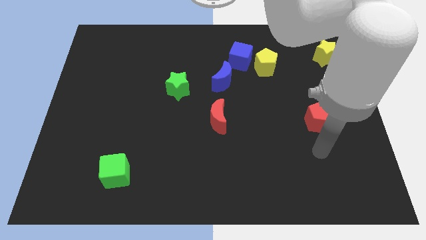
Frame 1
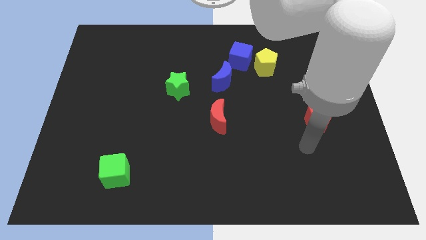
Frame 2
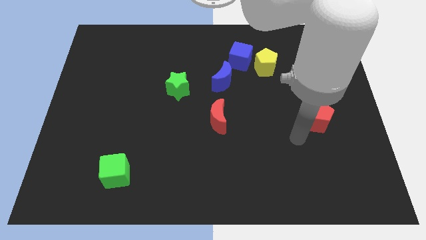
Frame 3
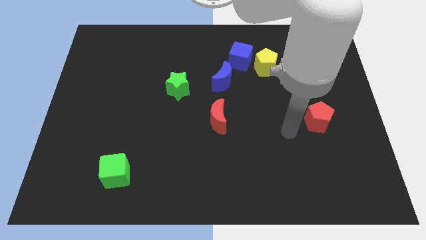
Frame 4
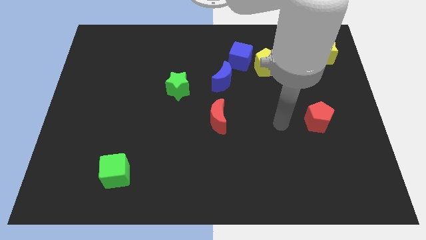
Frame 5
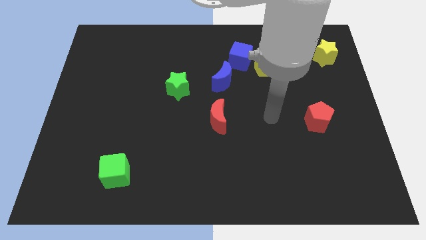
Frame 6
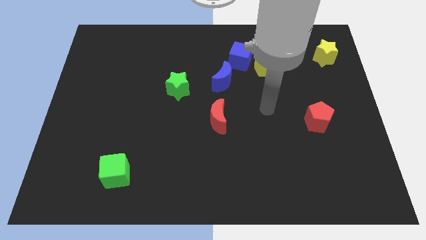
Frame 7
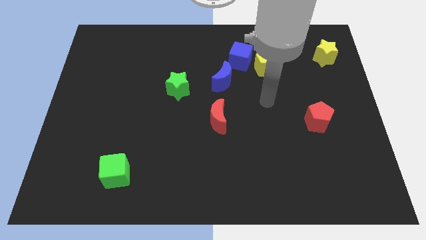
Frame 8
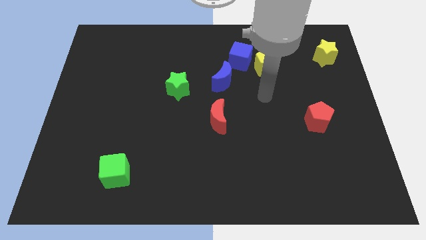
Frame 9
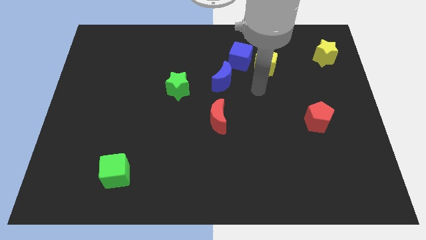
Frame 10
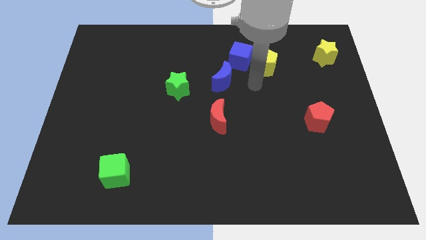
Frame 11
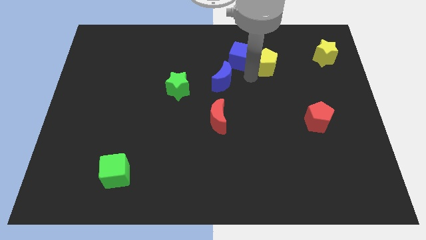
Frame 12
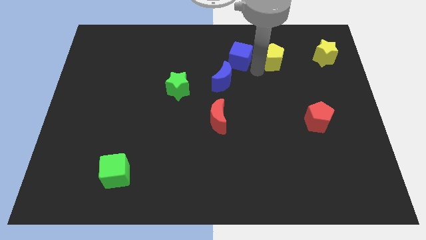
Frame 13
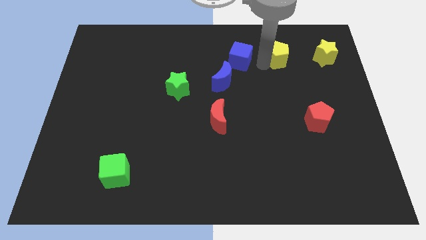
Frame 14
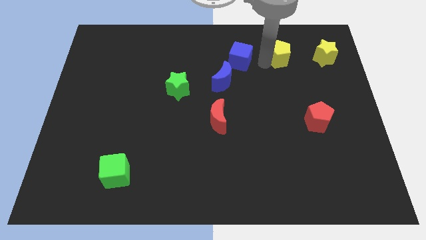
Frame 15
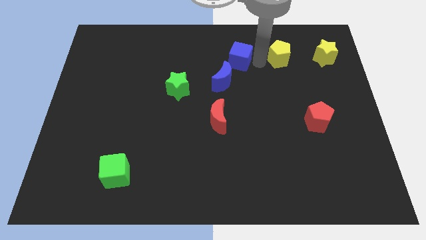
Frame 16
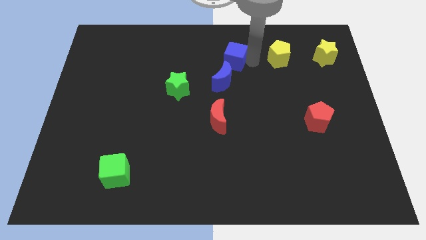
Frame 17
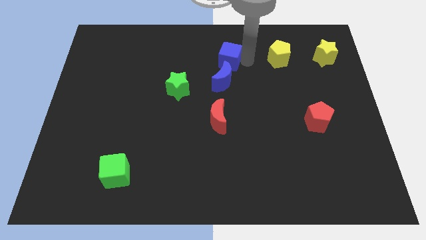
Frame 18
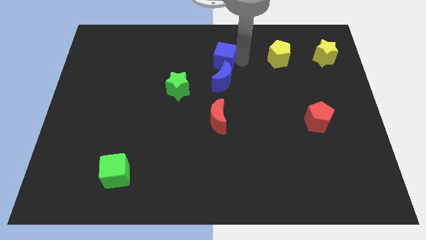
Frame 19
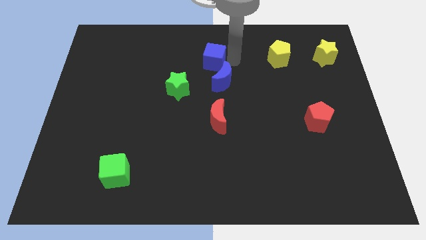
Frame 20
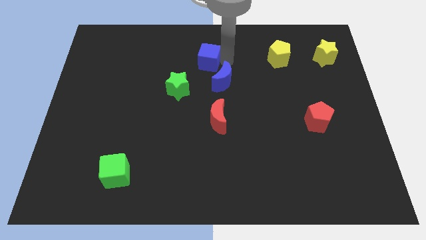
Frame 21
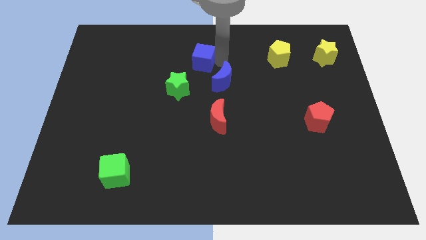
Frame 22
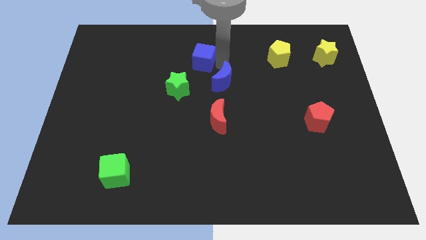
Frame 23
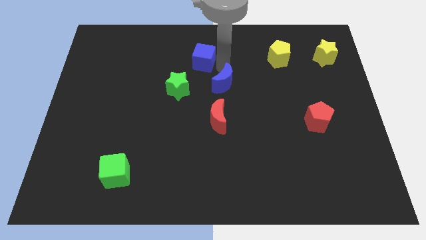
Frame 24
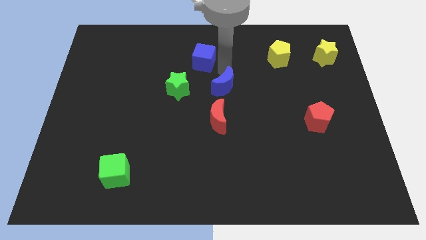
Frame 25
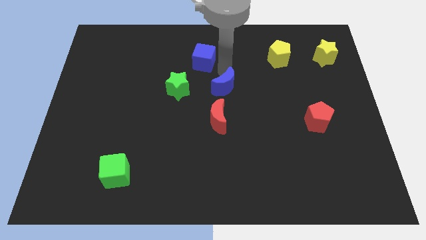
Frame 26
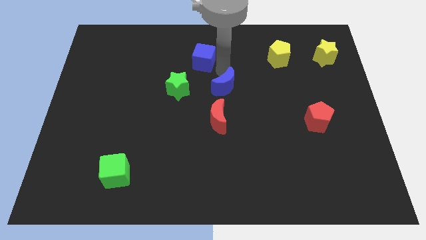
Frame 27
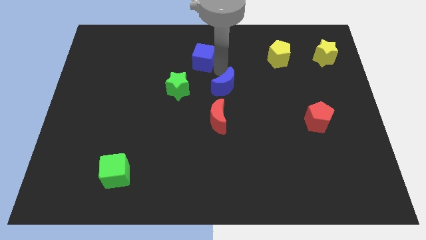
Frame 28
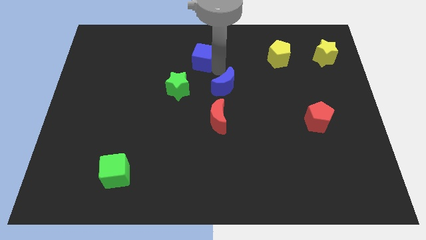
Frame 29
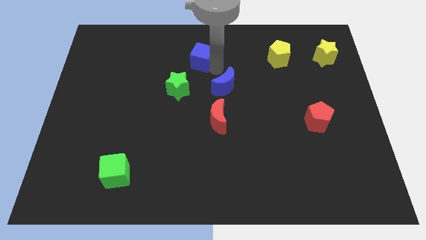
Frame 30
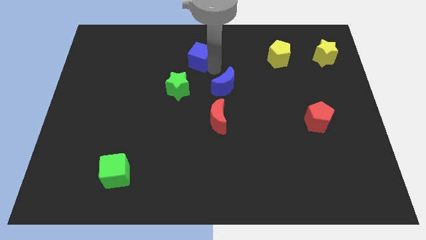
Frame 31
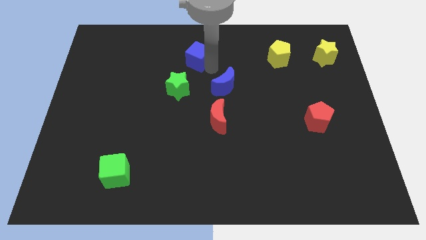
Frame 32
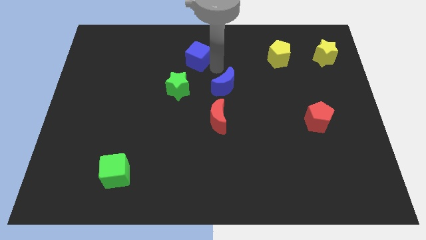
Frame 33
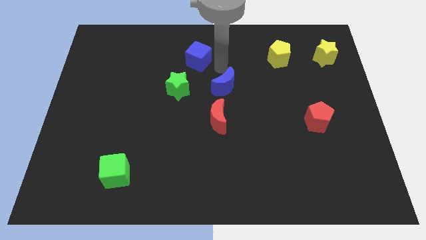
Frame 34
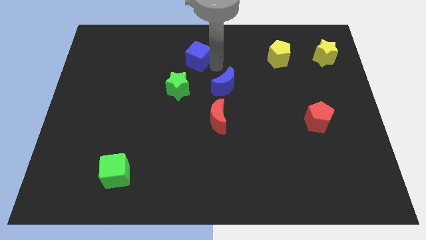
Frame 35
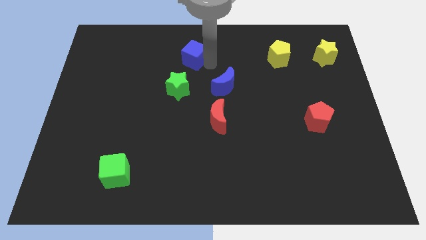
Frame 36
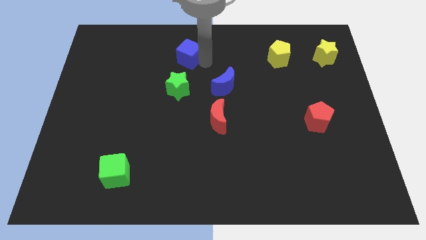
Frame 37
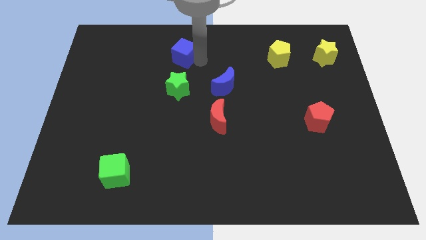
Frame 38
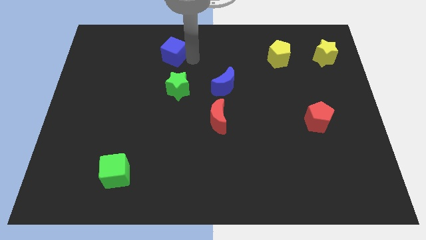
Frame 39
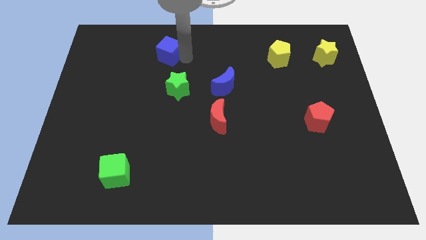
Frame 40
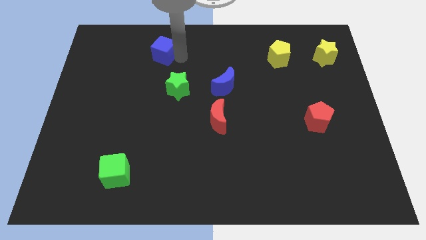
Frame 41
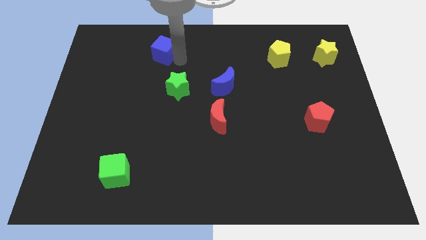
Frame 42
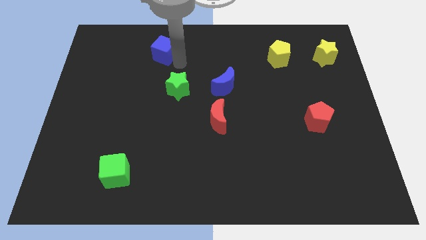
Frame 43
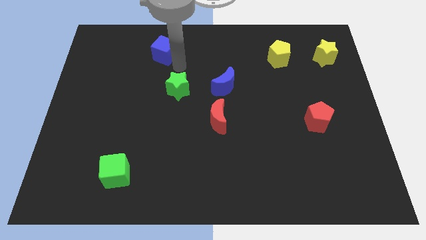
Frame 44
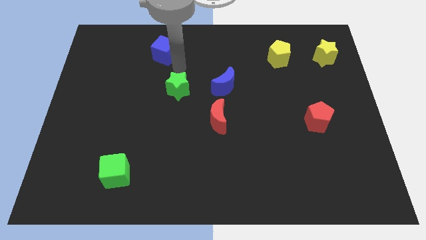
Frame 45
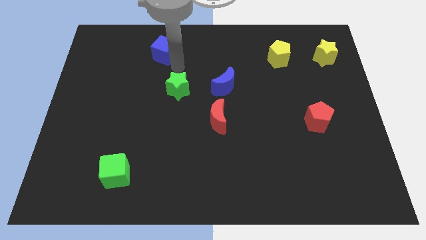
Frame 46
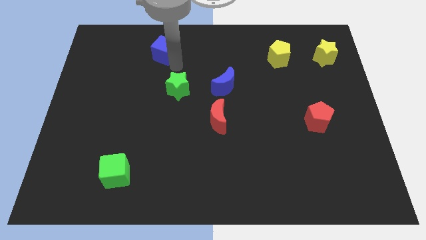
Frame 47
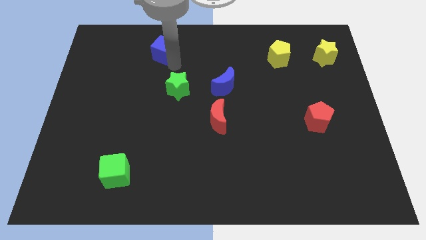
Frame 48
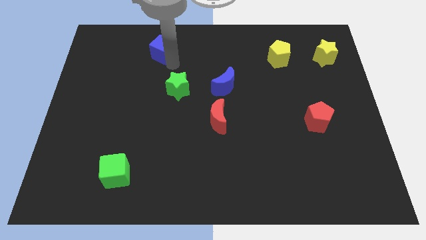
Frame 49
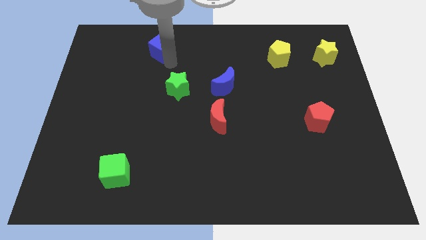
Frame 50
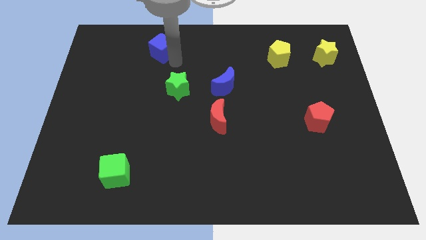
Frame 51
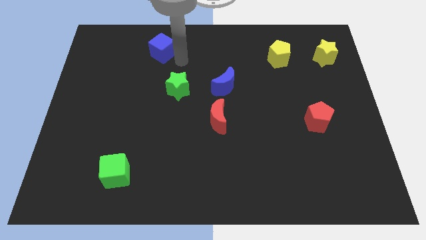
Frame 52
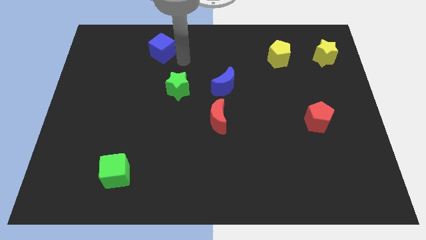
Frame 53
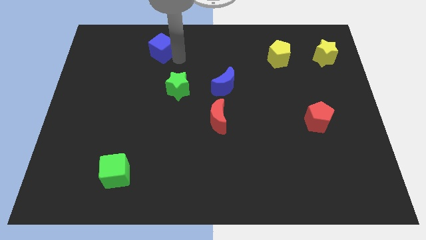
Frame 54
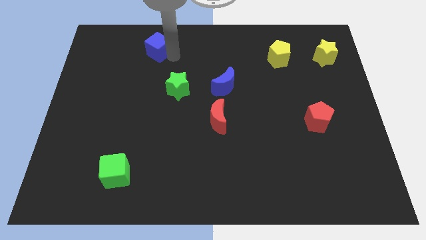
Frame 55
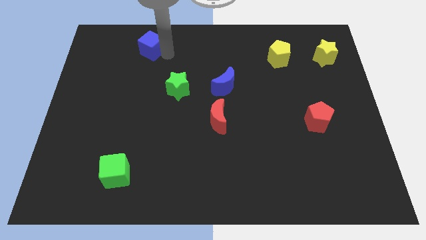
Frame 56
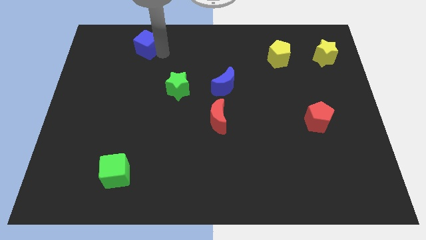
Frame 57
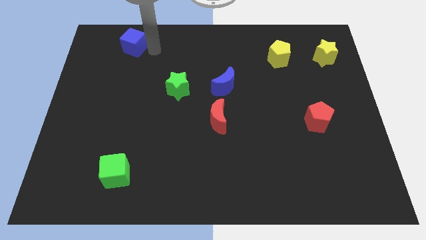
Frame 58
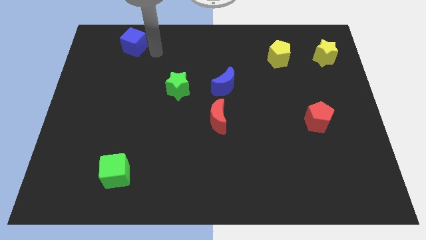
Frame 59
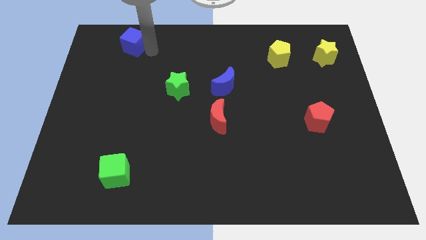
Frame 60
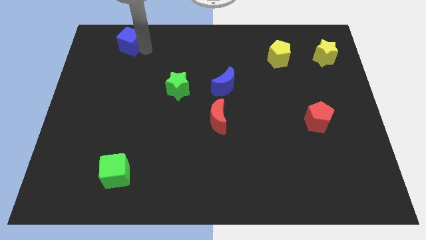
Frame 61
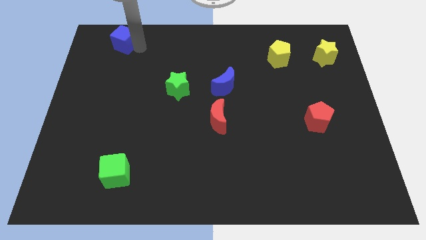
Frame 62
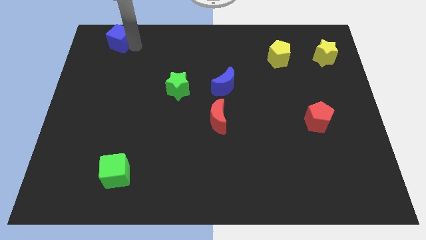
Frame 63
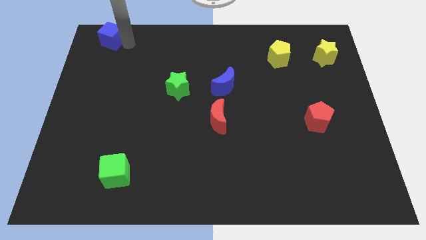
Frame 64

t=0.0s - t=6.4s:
put the blue cube to the top left of the board

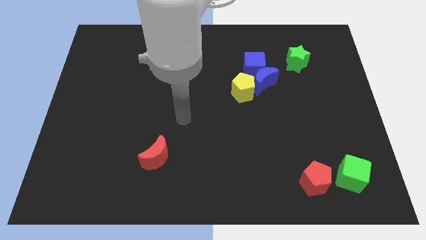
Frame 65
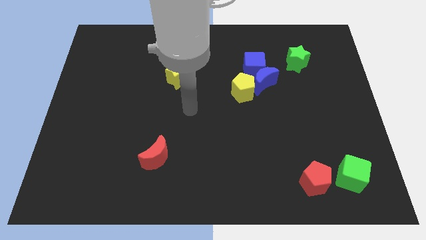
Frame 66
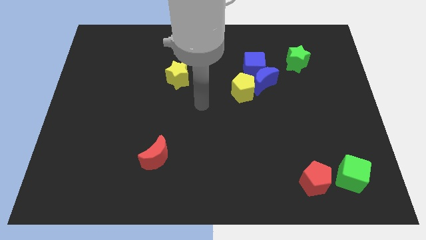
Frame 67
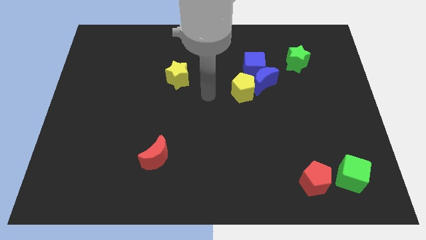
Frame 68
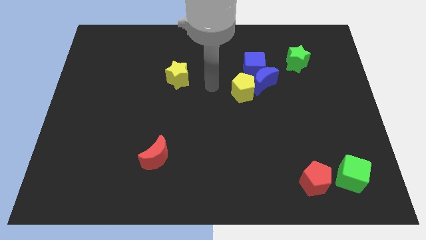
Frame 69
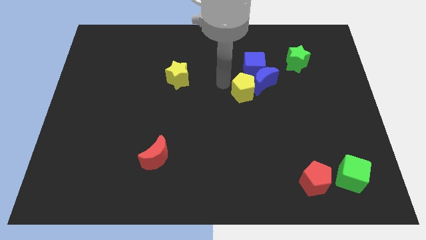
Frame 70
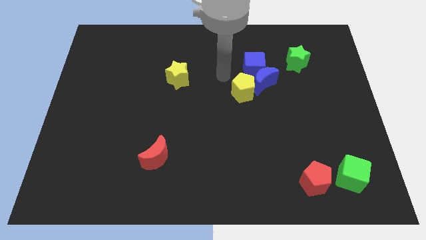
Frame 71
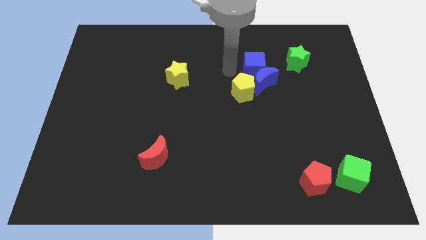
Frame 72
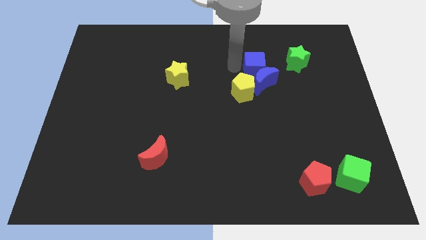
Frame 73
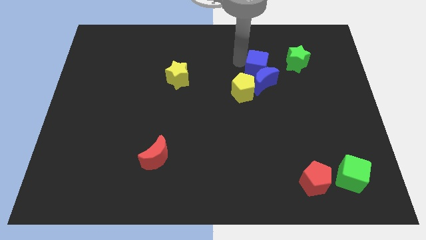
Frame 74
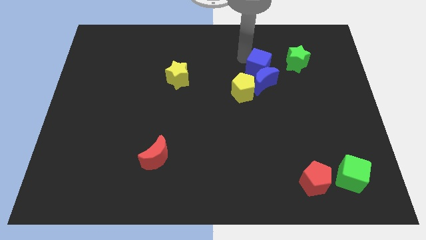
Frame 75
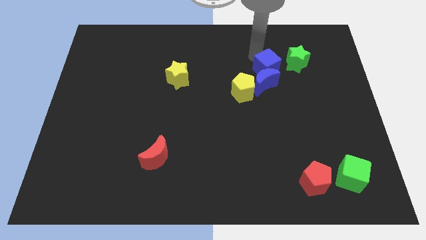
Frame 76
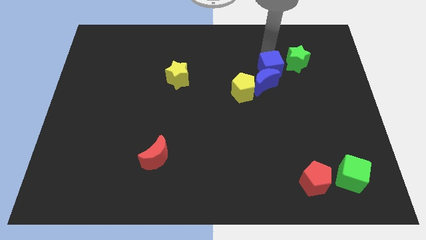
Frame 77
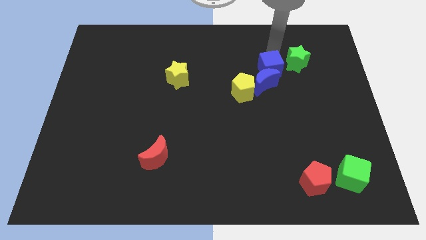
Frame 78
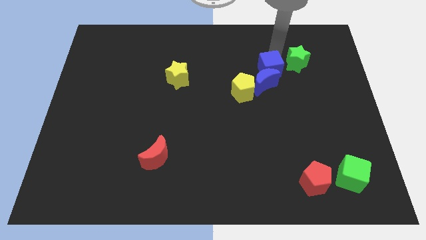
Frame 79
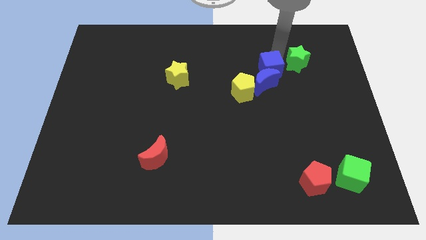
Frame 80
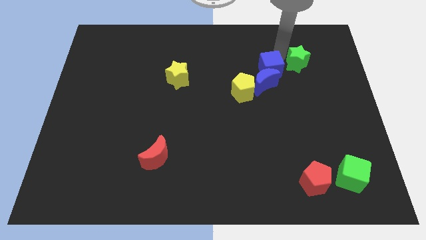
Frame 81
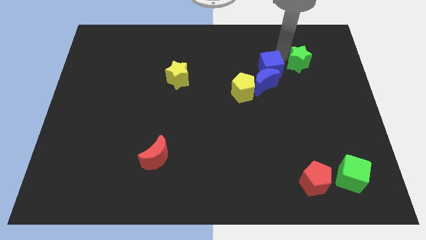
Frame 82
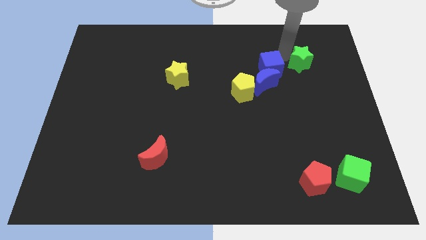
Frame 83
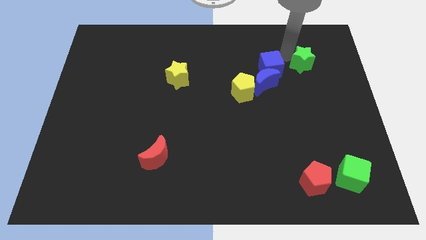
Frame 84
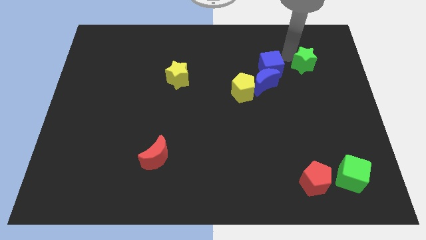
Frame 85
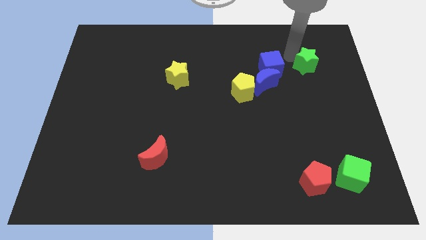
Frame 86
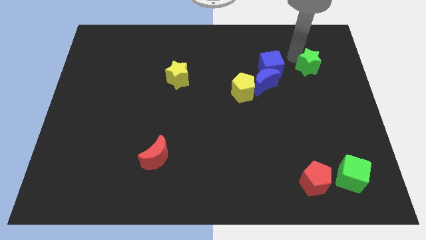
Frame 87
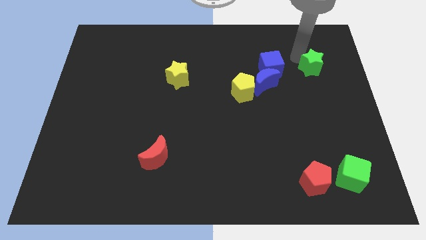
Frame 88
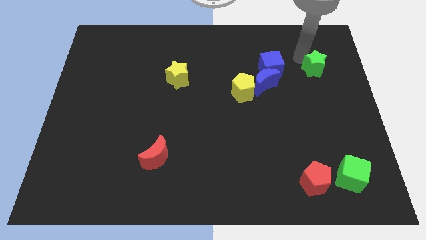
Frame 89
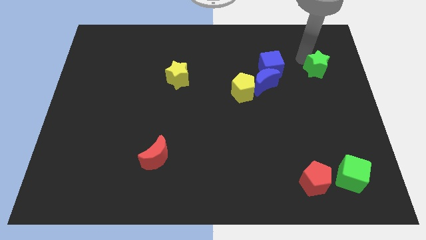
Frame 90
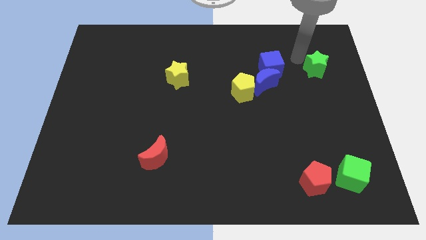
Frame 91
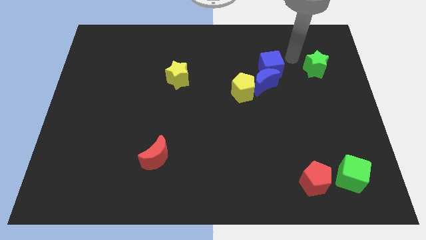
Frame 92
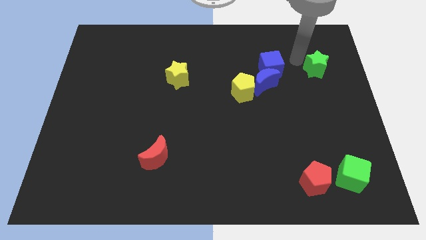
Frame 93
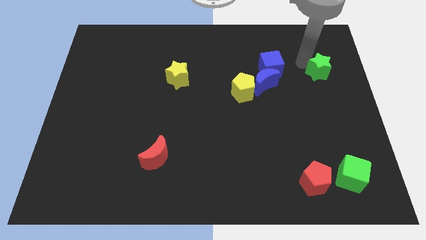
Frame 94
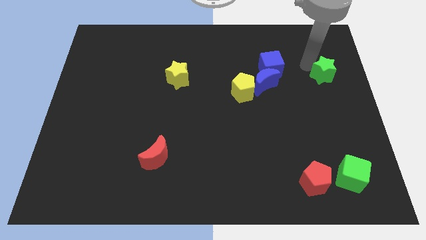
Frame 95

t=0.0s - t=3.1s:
move the green star to the center right
